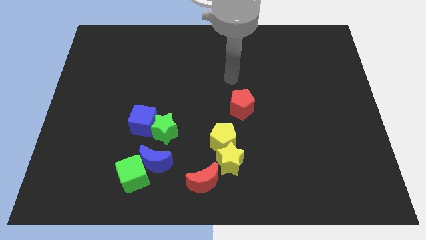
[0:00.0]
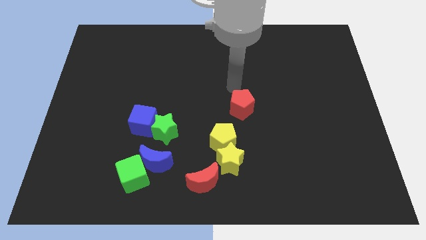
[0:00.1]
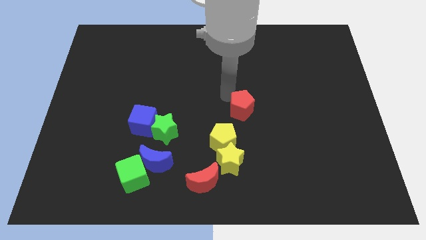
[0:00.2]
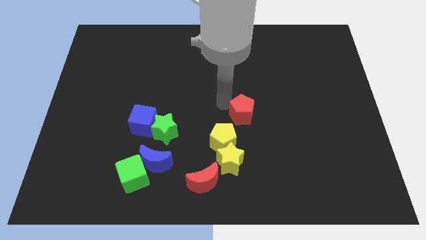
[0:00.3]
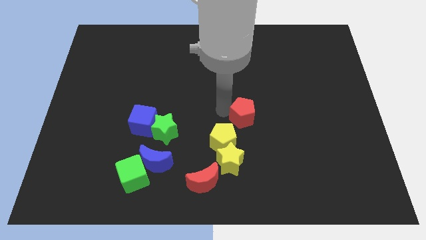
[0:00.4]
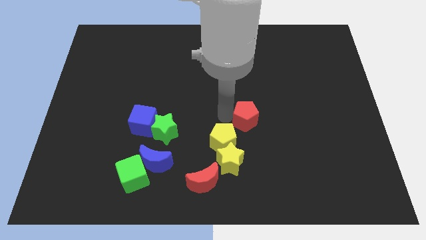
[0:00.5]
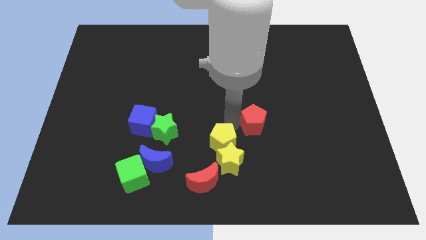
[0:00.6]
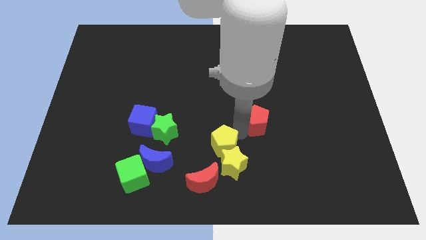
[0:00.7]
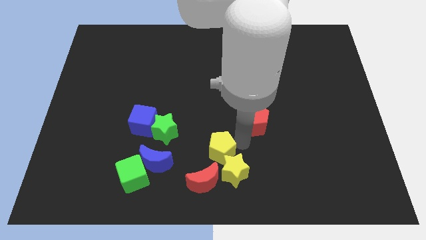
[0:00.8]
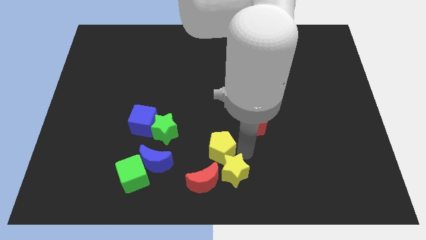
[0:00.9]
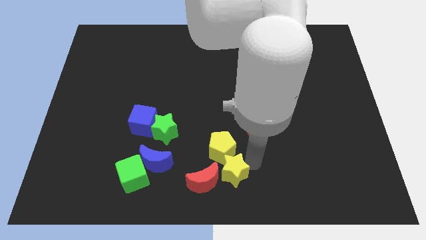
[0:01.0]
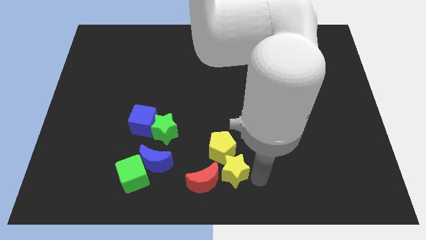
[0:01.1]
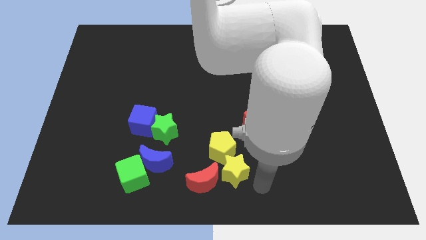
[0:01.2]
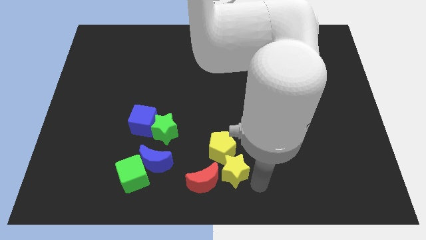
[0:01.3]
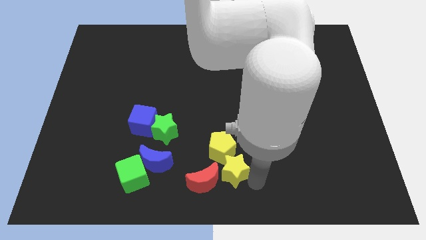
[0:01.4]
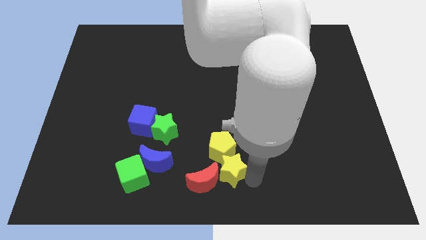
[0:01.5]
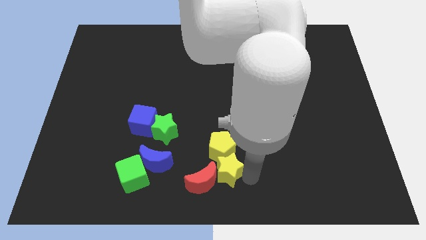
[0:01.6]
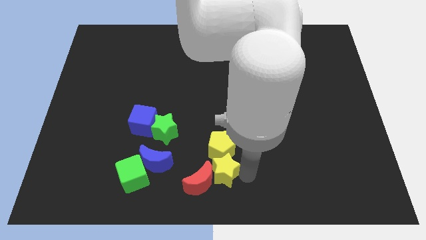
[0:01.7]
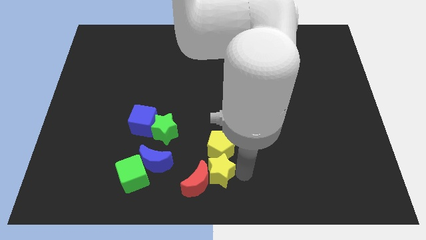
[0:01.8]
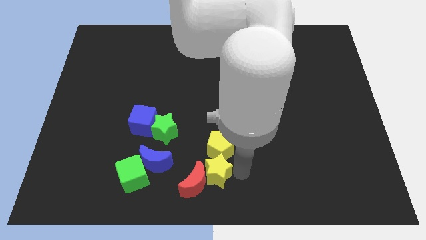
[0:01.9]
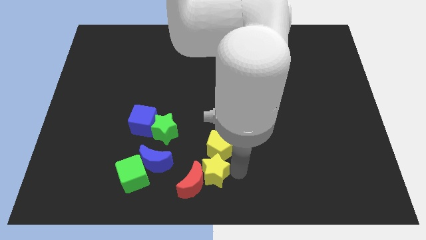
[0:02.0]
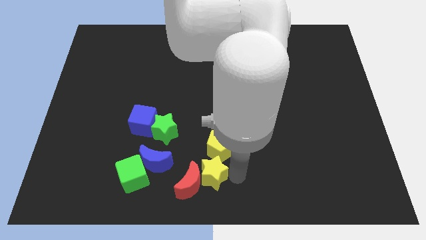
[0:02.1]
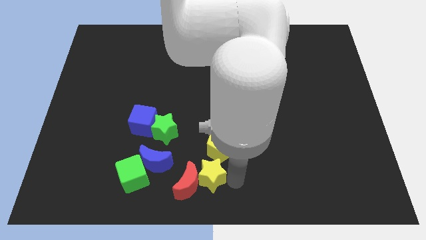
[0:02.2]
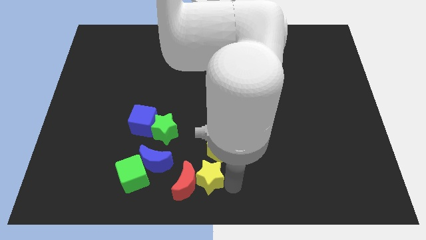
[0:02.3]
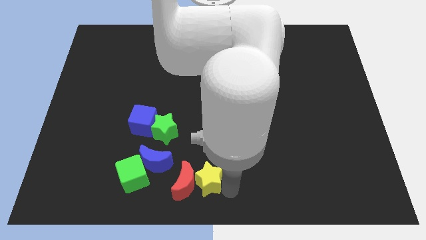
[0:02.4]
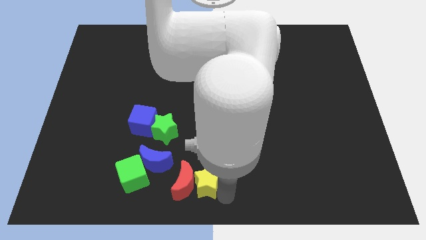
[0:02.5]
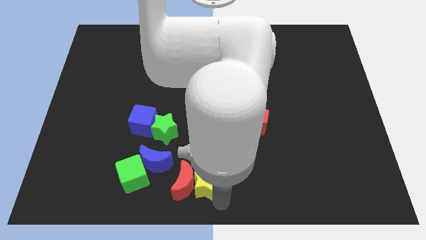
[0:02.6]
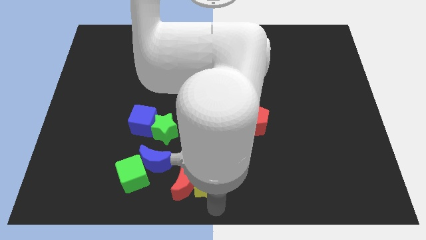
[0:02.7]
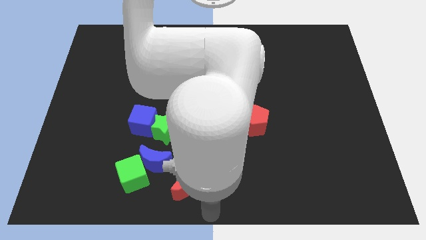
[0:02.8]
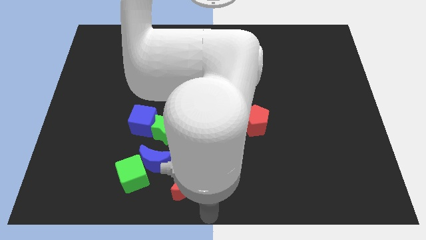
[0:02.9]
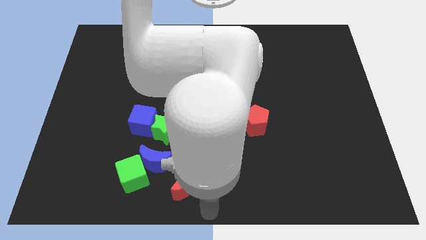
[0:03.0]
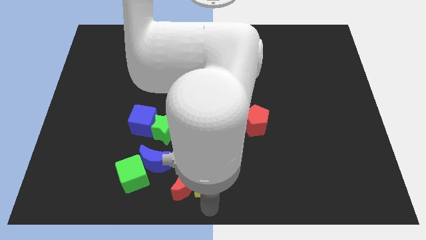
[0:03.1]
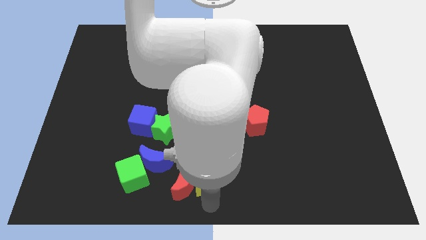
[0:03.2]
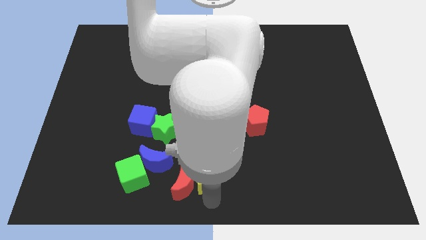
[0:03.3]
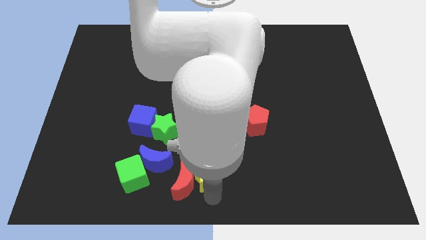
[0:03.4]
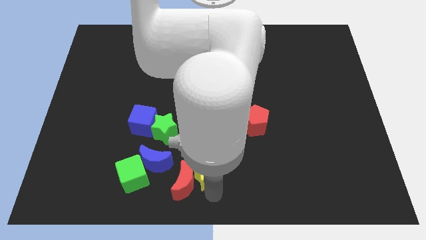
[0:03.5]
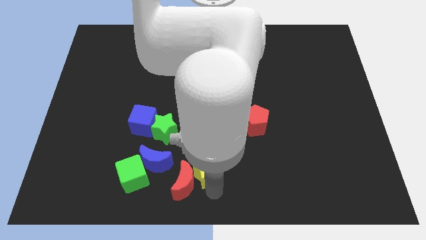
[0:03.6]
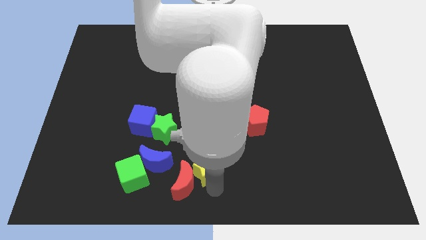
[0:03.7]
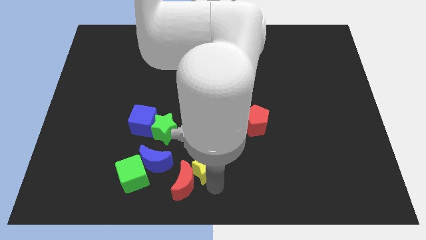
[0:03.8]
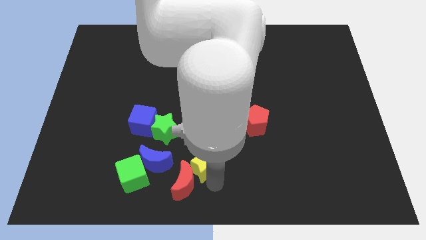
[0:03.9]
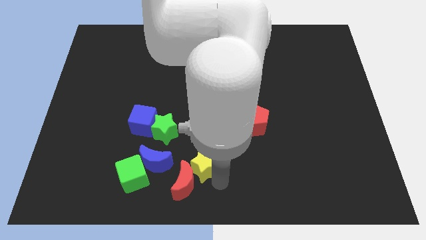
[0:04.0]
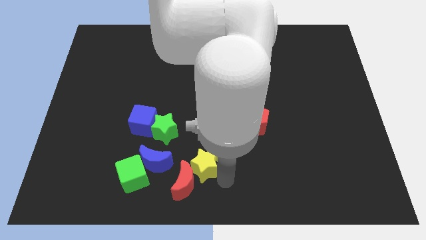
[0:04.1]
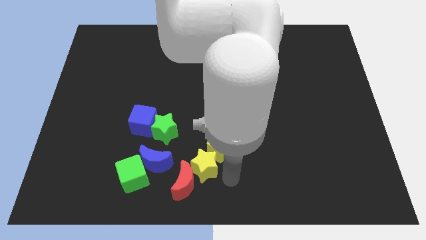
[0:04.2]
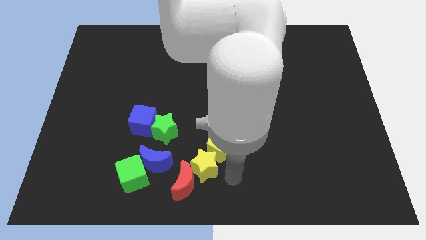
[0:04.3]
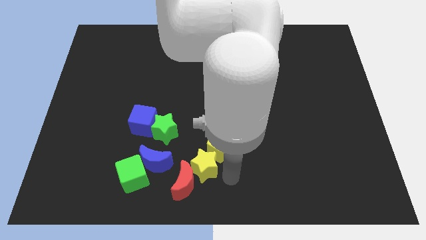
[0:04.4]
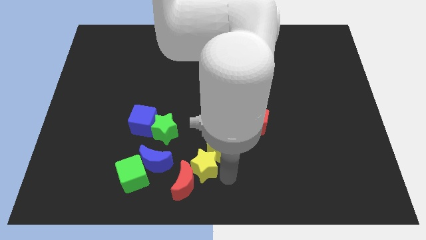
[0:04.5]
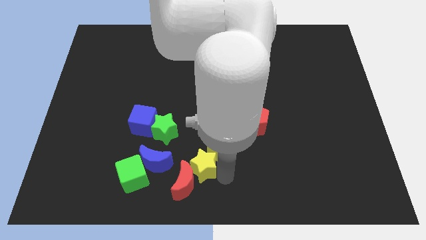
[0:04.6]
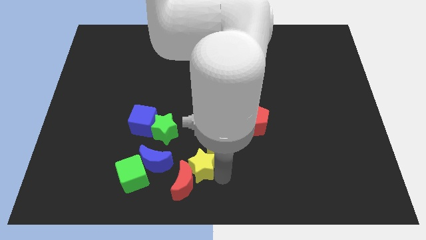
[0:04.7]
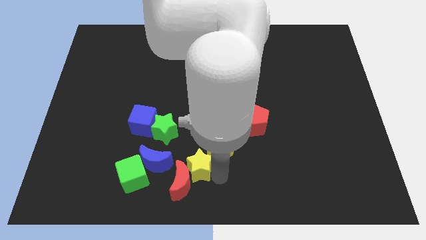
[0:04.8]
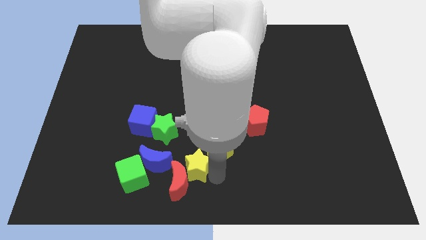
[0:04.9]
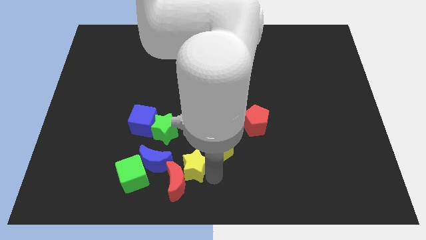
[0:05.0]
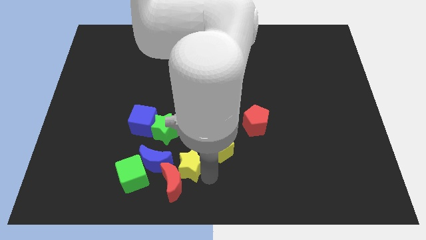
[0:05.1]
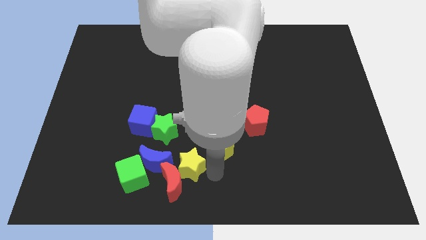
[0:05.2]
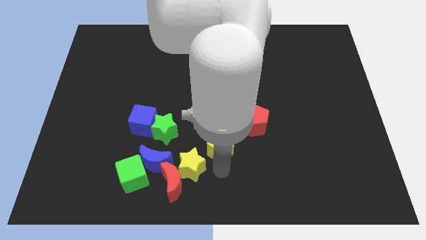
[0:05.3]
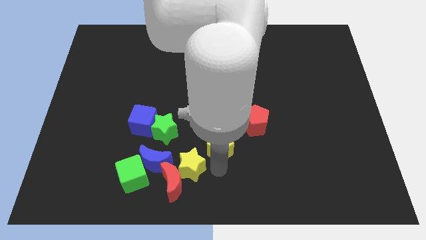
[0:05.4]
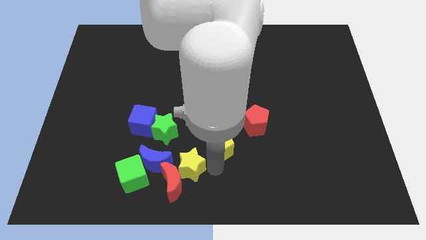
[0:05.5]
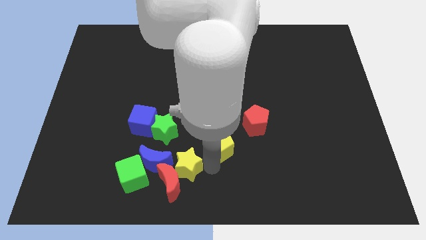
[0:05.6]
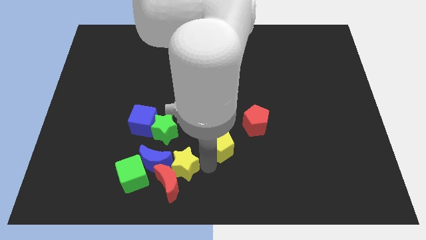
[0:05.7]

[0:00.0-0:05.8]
move the yellow star close to the blue moon
